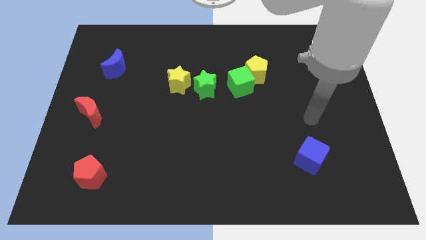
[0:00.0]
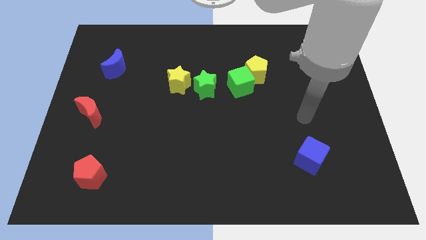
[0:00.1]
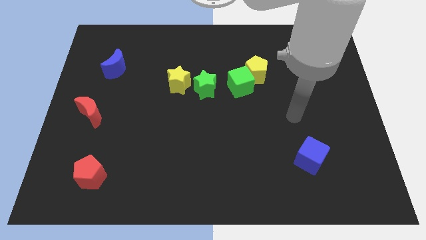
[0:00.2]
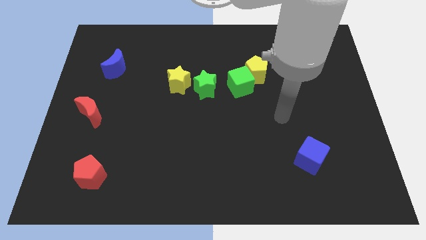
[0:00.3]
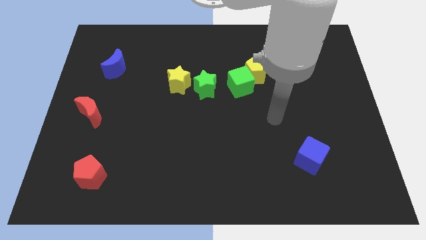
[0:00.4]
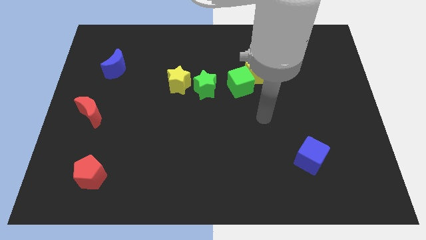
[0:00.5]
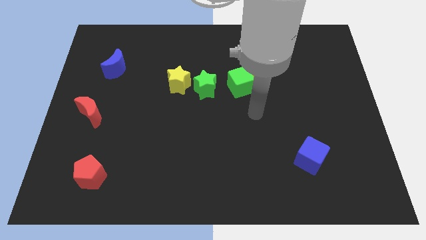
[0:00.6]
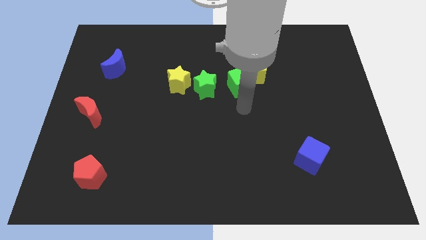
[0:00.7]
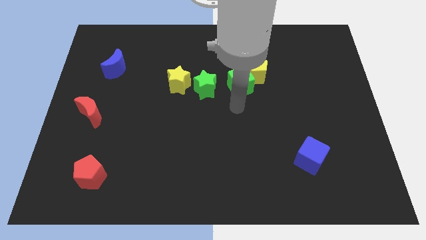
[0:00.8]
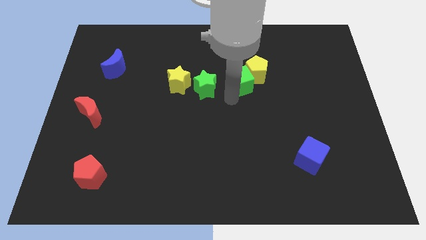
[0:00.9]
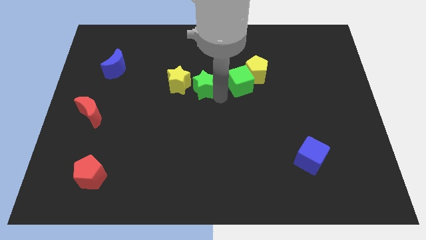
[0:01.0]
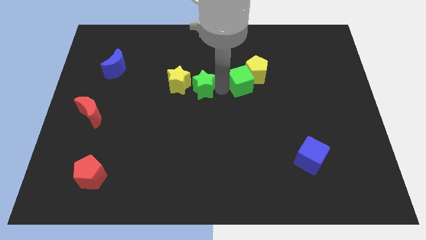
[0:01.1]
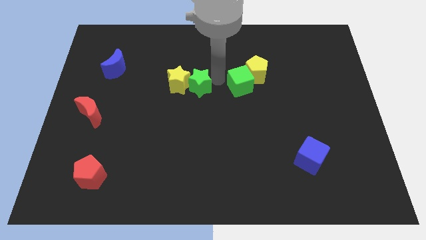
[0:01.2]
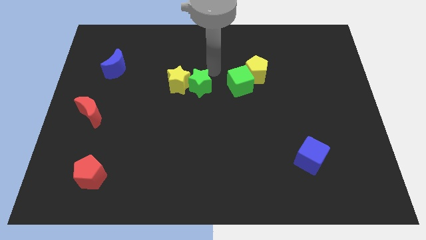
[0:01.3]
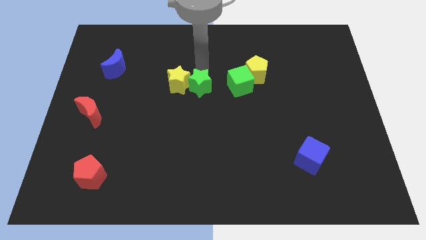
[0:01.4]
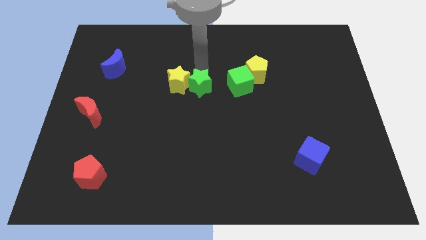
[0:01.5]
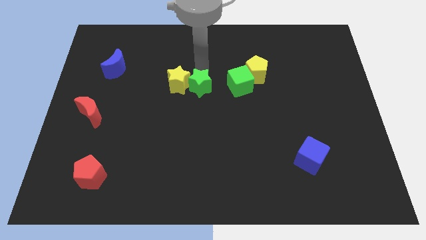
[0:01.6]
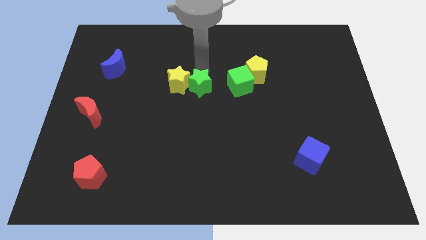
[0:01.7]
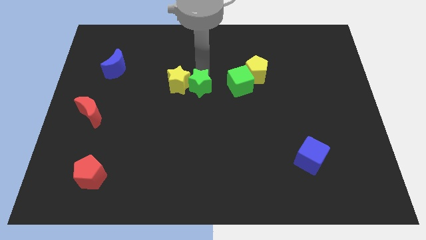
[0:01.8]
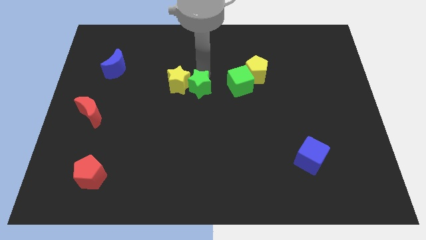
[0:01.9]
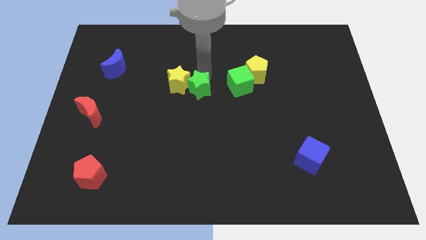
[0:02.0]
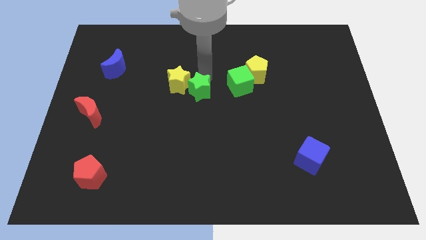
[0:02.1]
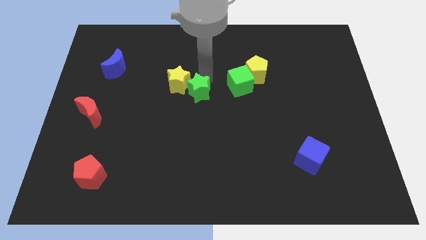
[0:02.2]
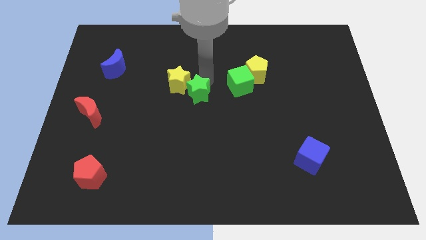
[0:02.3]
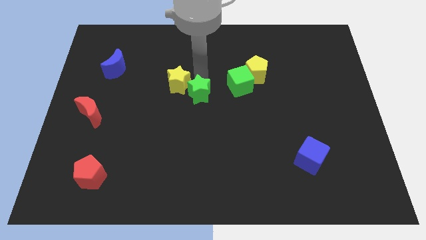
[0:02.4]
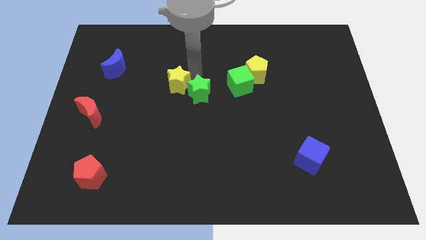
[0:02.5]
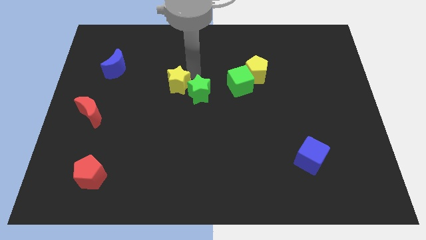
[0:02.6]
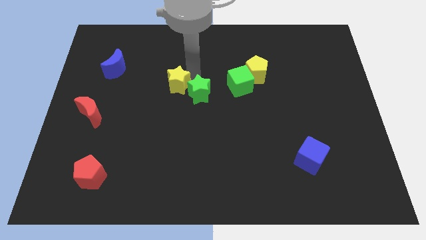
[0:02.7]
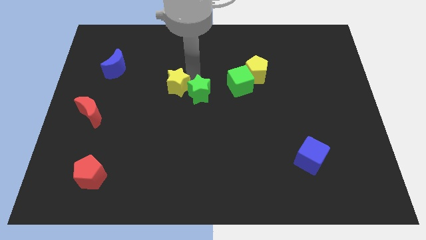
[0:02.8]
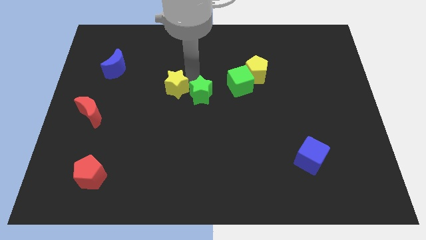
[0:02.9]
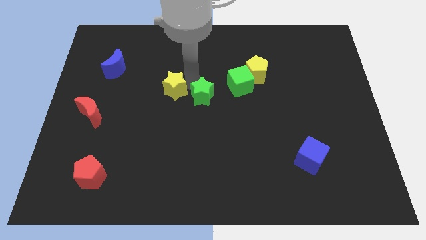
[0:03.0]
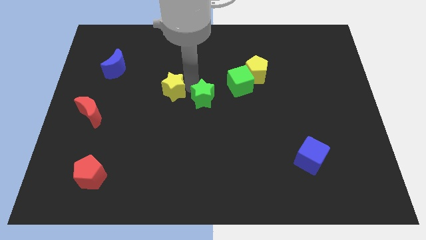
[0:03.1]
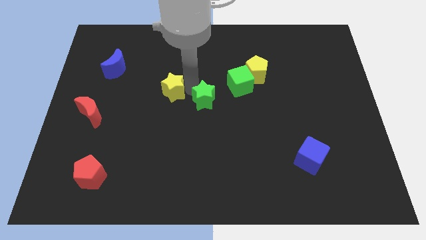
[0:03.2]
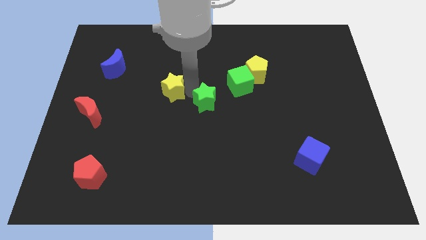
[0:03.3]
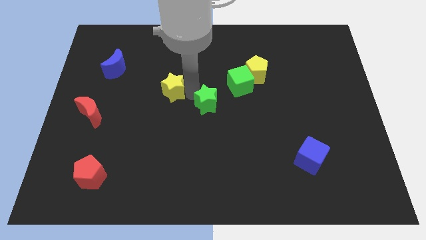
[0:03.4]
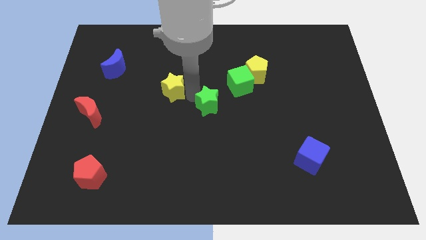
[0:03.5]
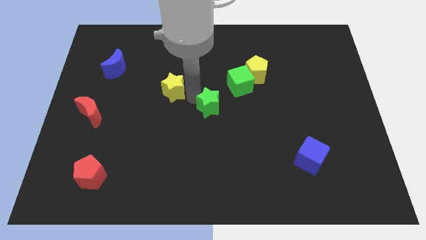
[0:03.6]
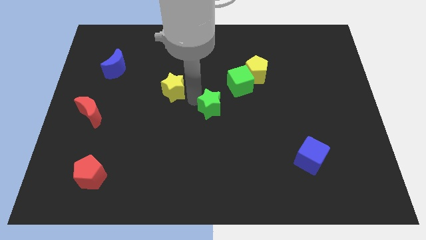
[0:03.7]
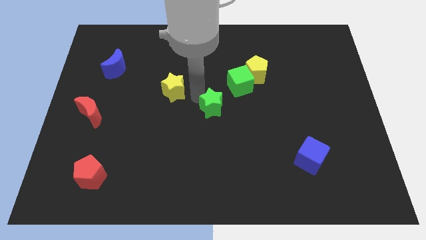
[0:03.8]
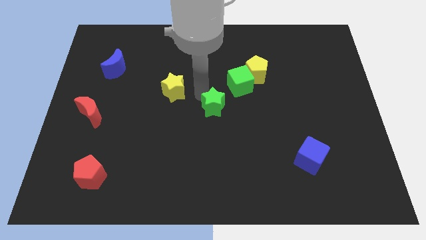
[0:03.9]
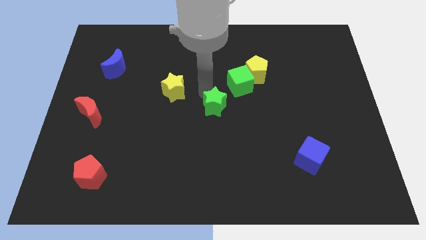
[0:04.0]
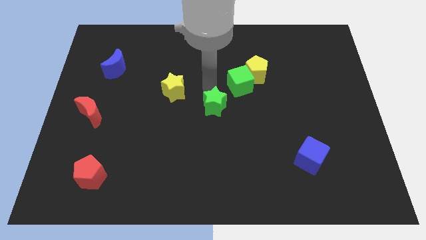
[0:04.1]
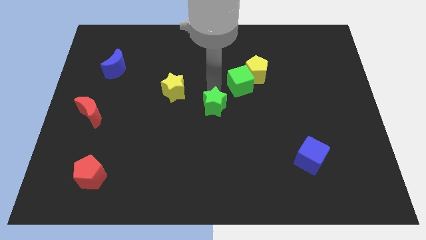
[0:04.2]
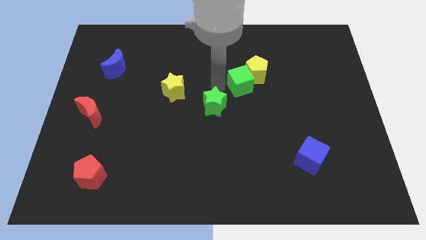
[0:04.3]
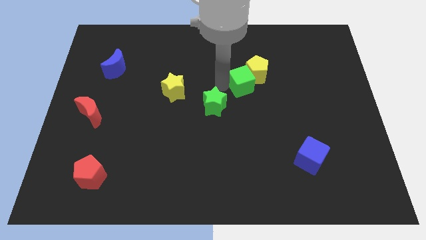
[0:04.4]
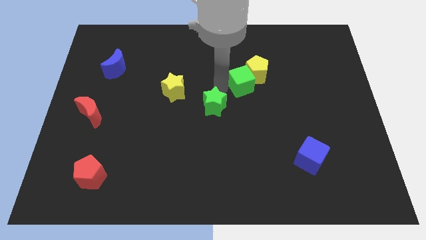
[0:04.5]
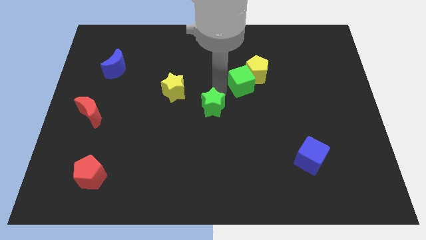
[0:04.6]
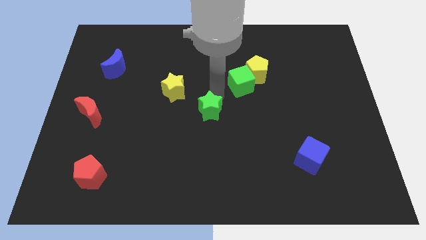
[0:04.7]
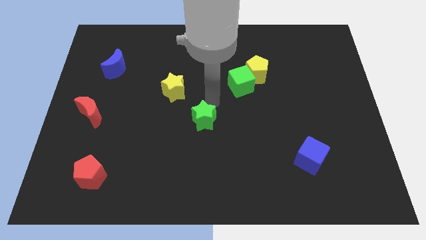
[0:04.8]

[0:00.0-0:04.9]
move the green star downwards a little

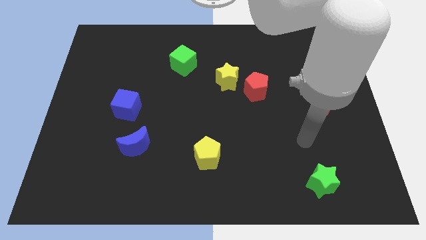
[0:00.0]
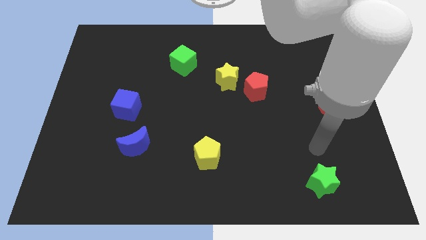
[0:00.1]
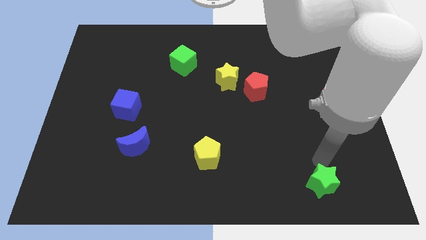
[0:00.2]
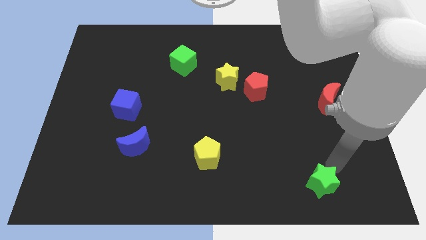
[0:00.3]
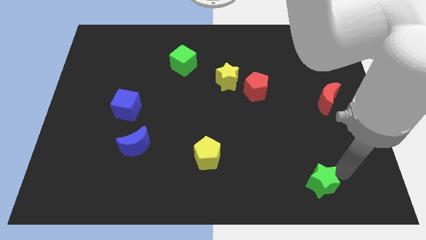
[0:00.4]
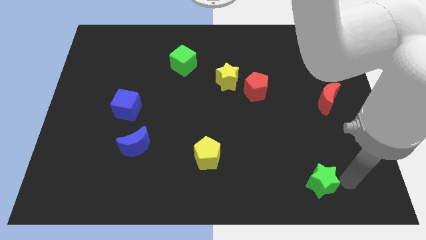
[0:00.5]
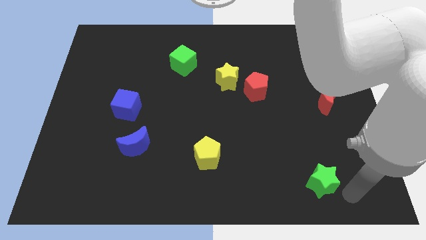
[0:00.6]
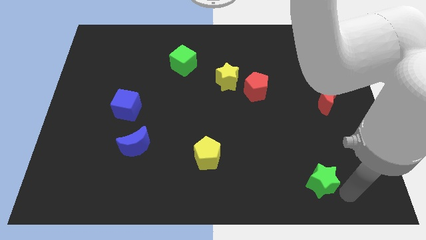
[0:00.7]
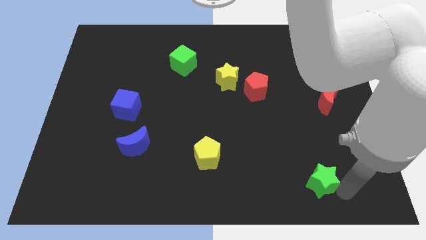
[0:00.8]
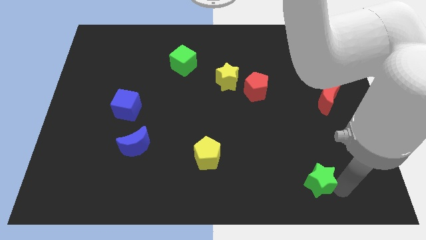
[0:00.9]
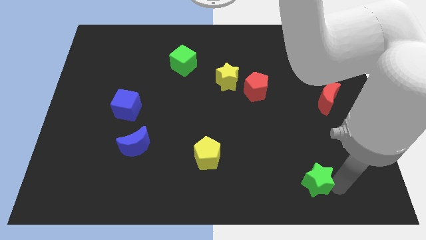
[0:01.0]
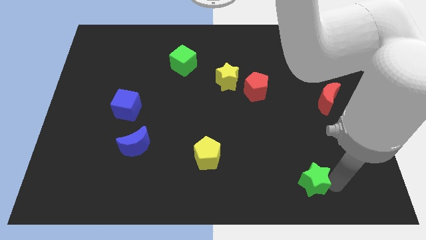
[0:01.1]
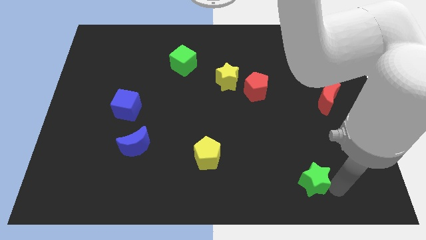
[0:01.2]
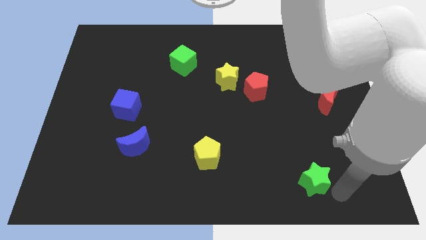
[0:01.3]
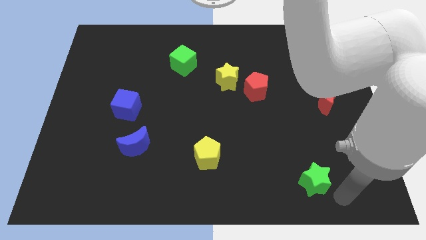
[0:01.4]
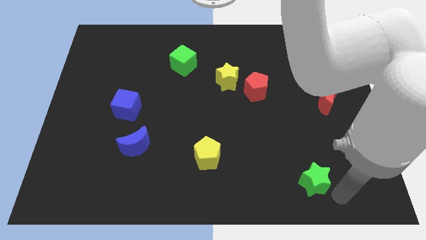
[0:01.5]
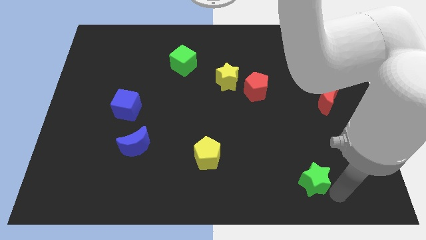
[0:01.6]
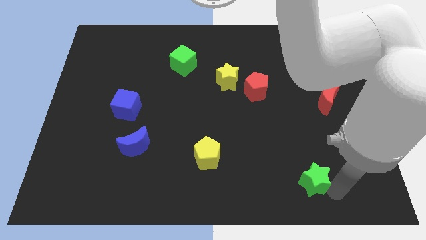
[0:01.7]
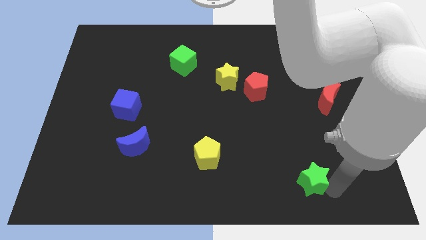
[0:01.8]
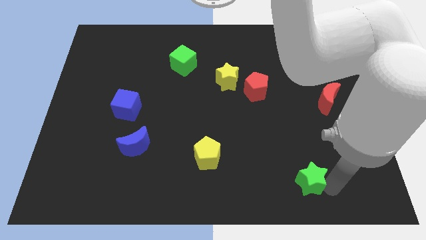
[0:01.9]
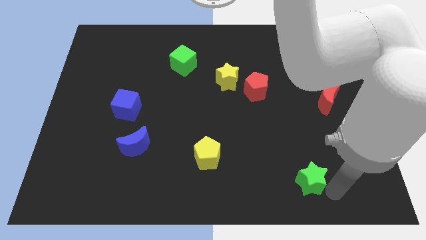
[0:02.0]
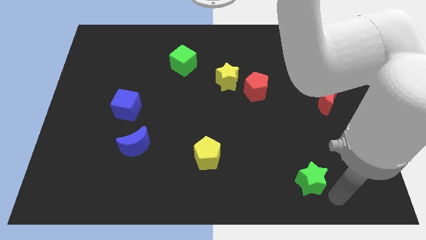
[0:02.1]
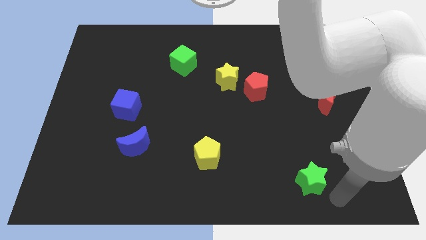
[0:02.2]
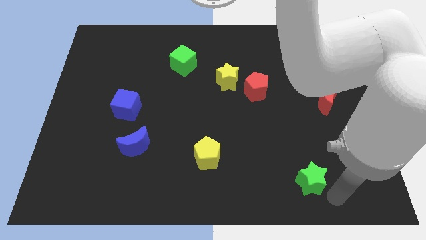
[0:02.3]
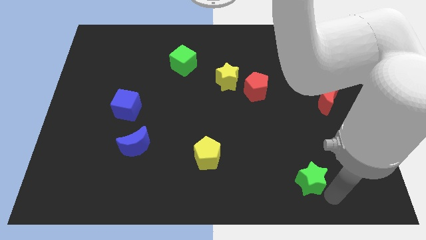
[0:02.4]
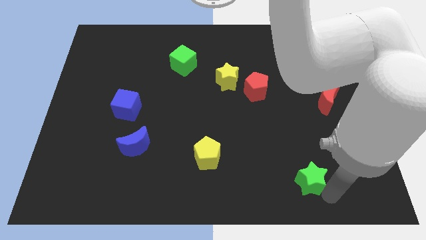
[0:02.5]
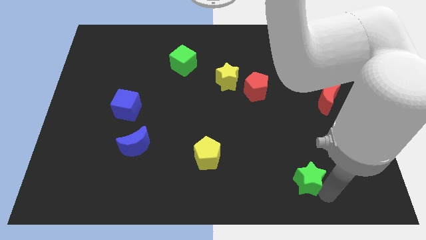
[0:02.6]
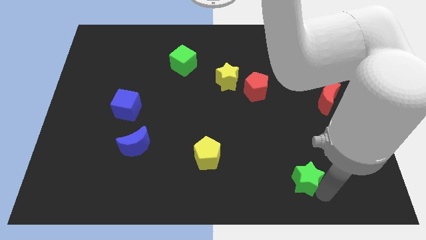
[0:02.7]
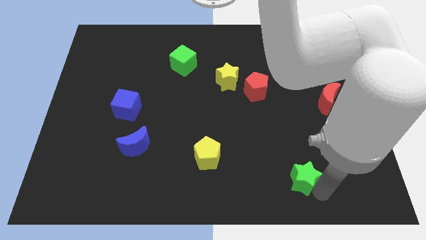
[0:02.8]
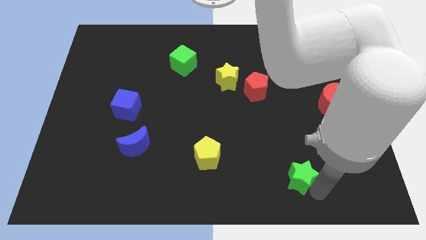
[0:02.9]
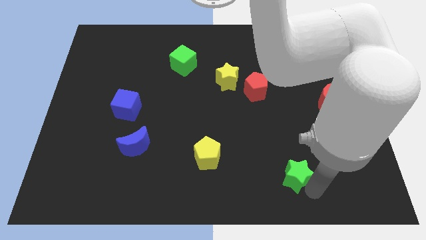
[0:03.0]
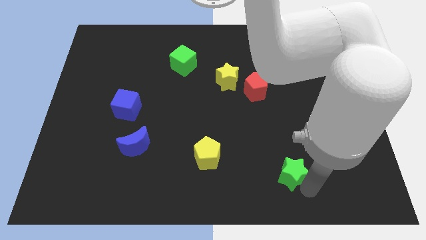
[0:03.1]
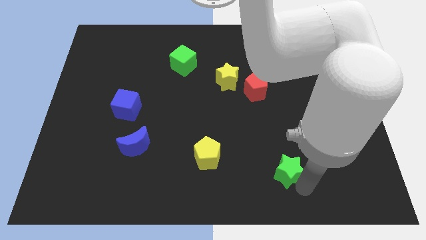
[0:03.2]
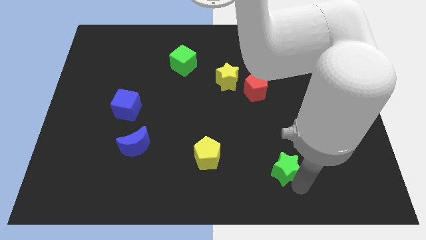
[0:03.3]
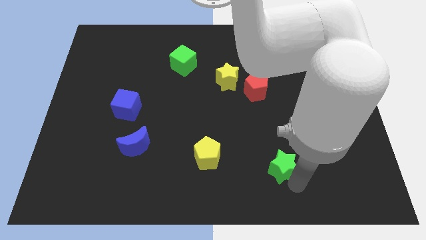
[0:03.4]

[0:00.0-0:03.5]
slide the green star a bit upwards and left
